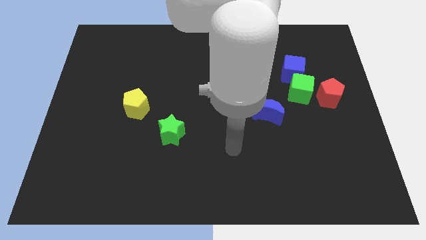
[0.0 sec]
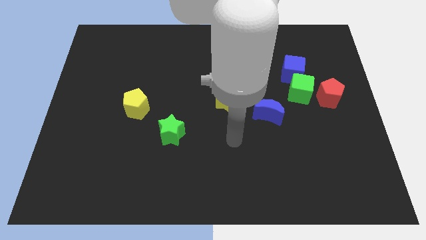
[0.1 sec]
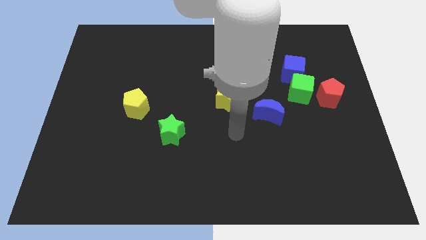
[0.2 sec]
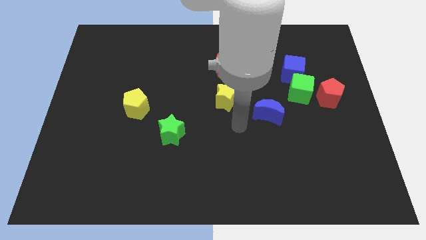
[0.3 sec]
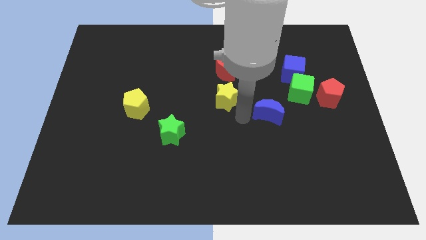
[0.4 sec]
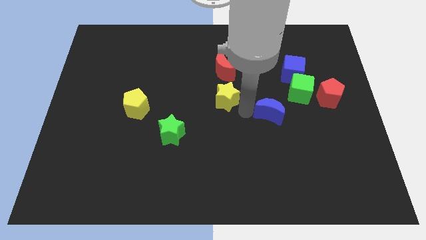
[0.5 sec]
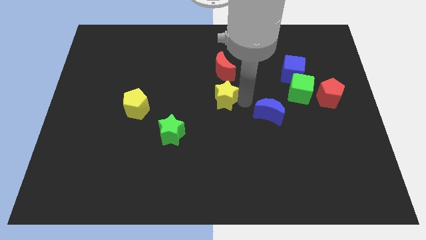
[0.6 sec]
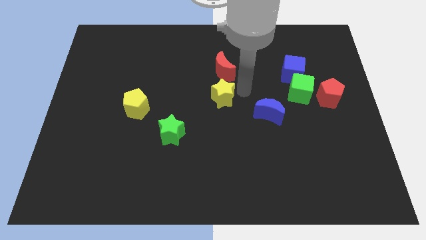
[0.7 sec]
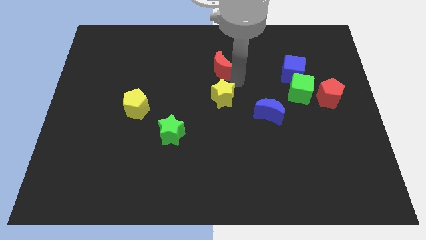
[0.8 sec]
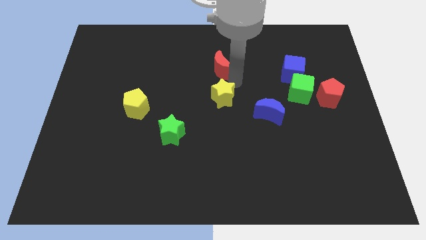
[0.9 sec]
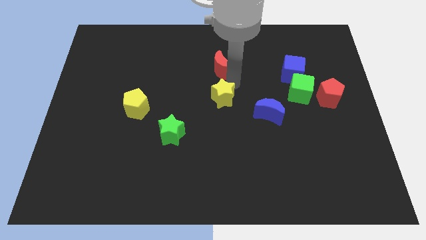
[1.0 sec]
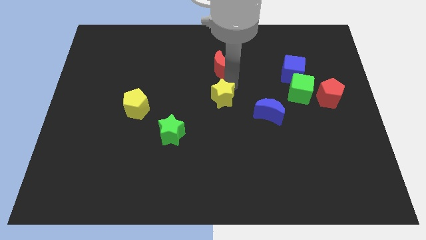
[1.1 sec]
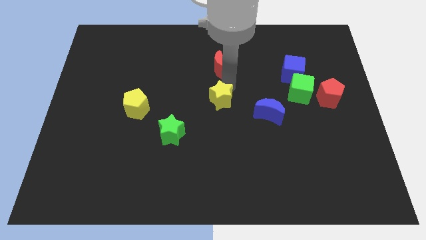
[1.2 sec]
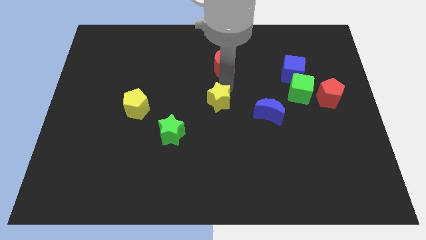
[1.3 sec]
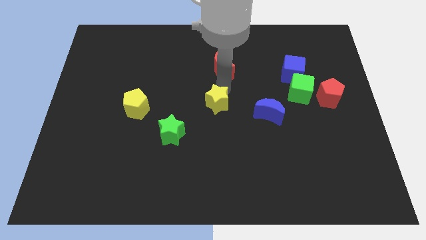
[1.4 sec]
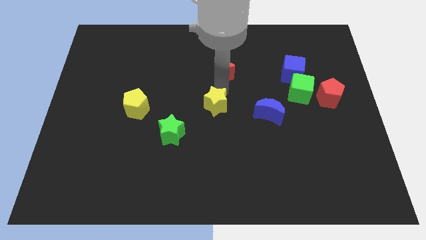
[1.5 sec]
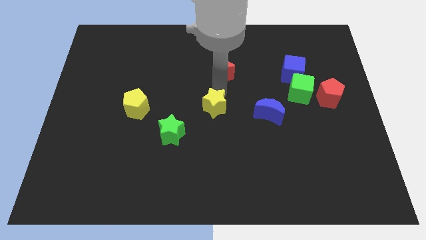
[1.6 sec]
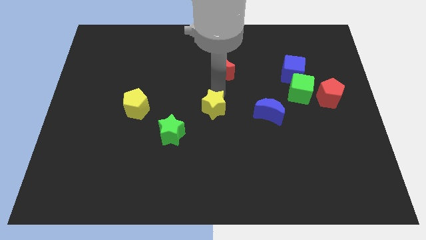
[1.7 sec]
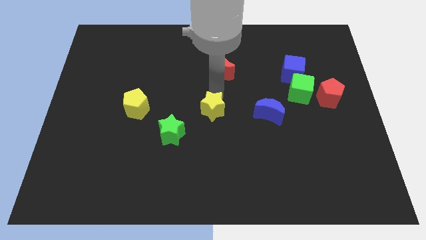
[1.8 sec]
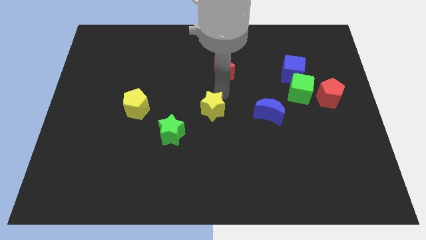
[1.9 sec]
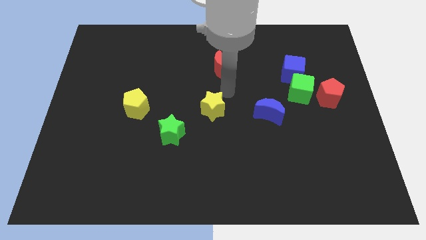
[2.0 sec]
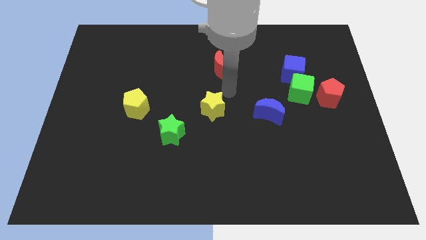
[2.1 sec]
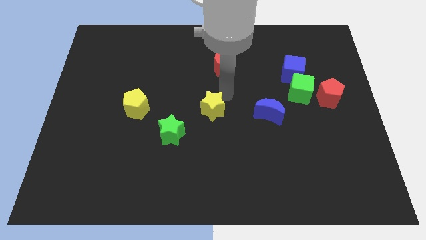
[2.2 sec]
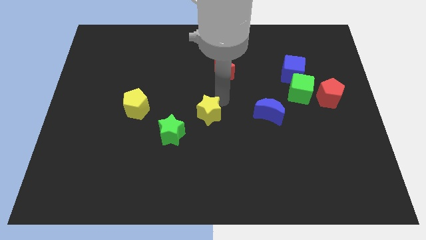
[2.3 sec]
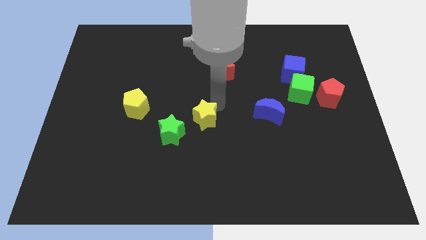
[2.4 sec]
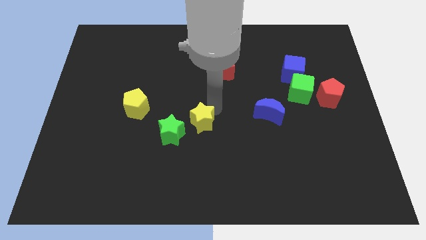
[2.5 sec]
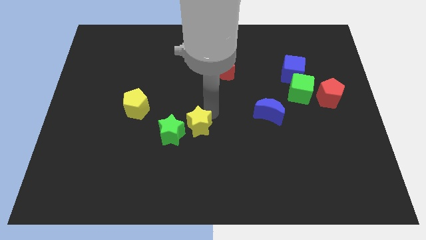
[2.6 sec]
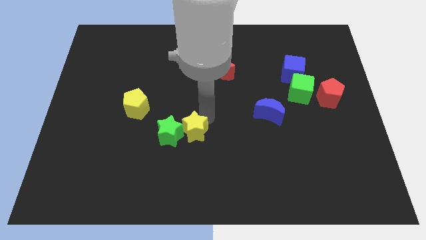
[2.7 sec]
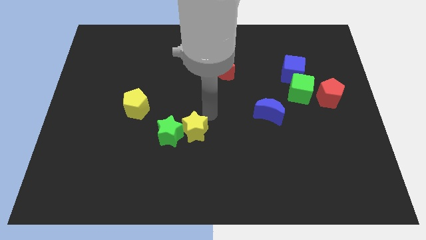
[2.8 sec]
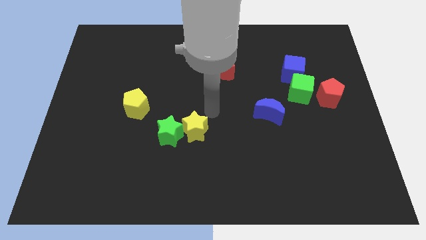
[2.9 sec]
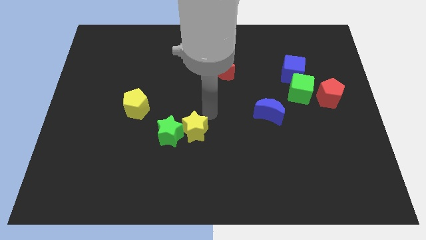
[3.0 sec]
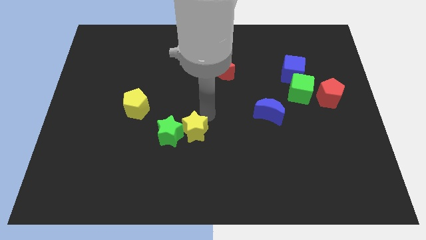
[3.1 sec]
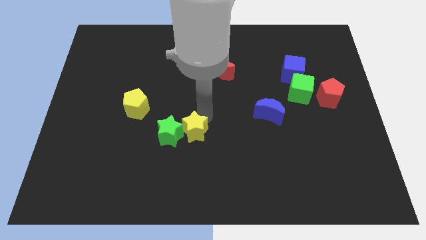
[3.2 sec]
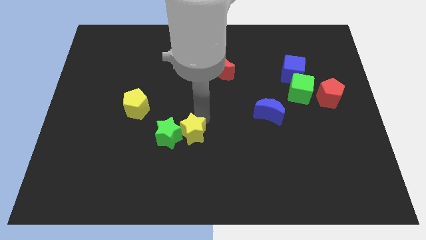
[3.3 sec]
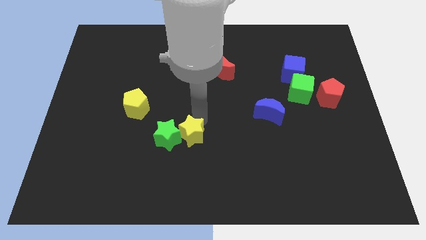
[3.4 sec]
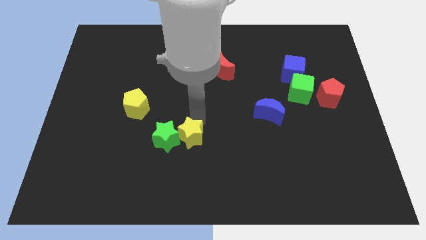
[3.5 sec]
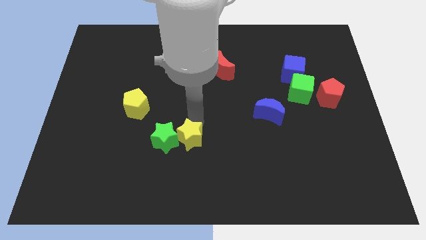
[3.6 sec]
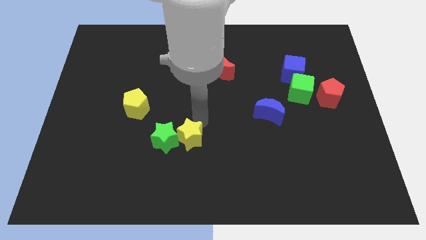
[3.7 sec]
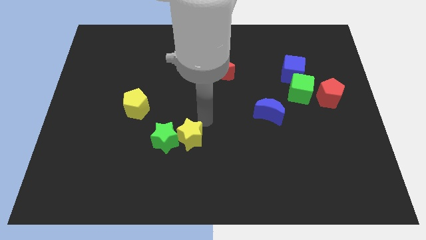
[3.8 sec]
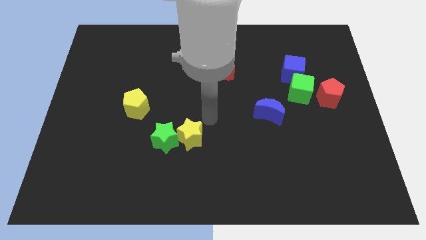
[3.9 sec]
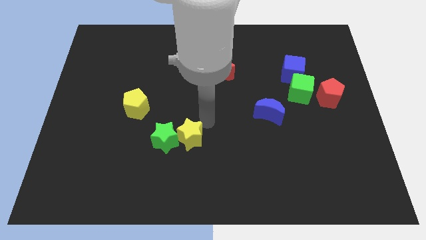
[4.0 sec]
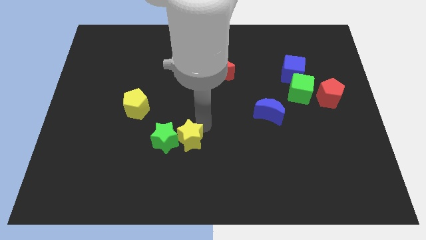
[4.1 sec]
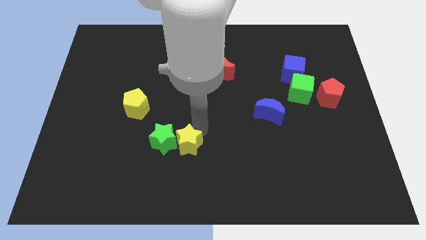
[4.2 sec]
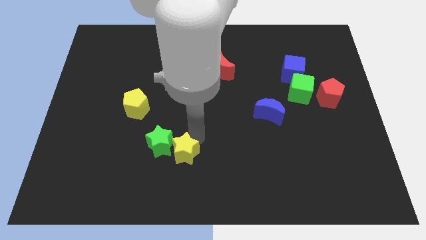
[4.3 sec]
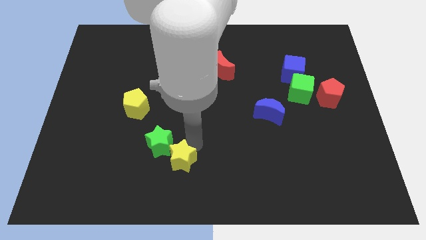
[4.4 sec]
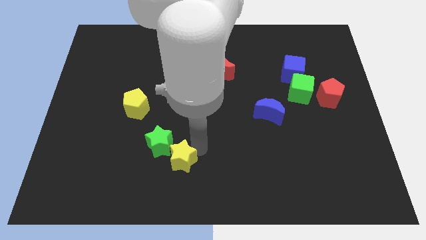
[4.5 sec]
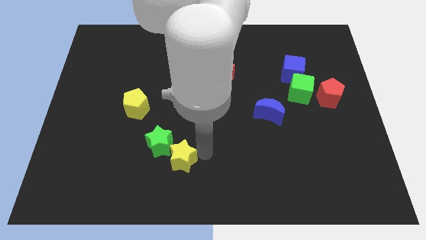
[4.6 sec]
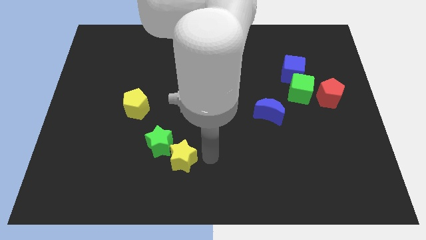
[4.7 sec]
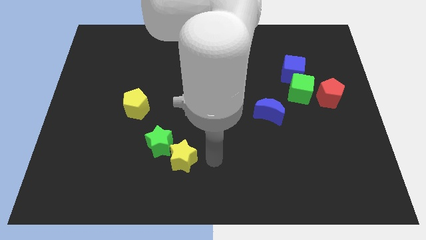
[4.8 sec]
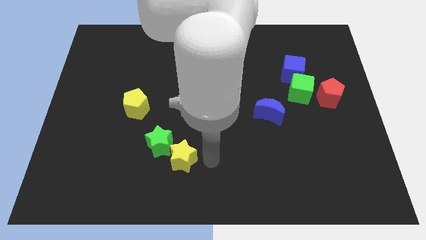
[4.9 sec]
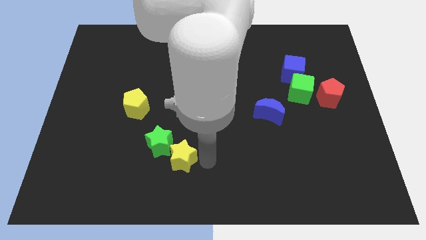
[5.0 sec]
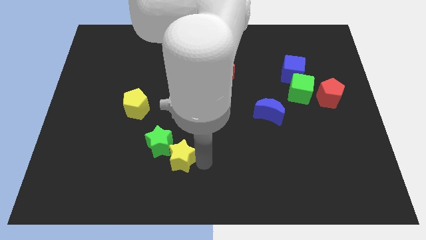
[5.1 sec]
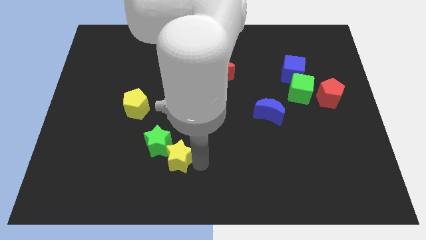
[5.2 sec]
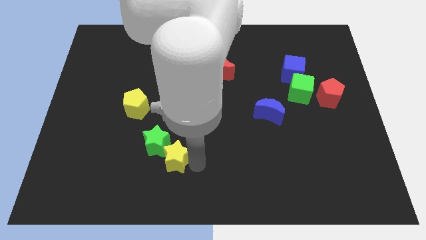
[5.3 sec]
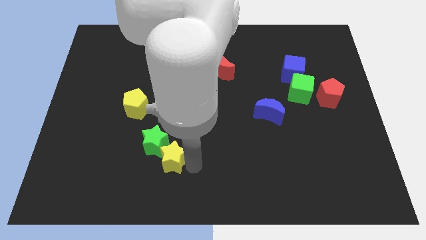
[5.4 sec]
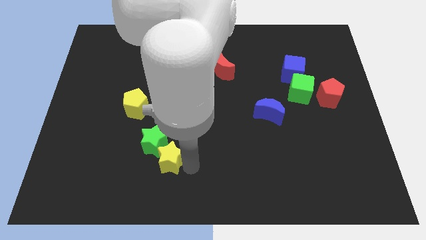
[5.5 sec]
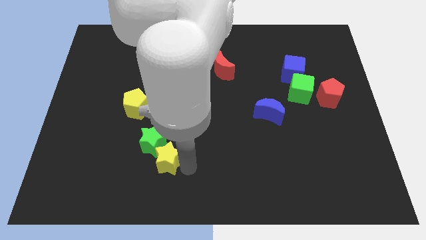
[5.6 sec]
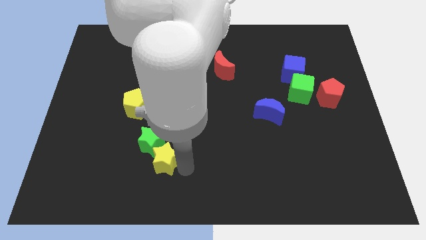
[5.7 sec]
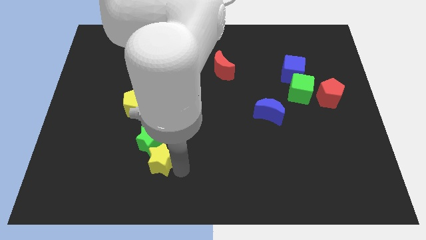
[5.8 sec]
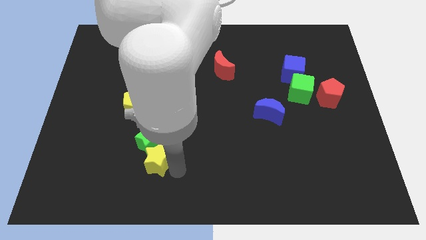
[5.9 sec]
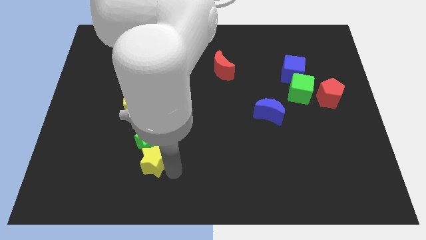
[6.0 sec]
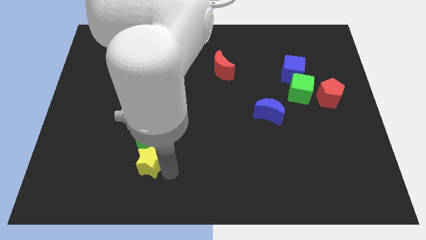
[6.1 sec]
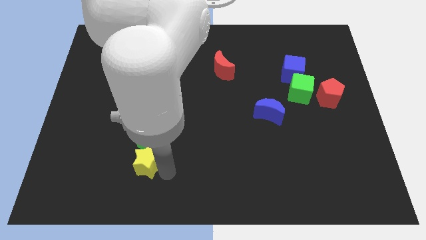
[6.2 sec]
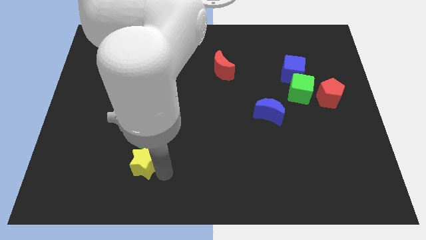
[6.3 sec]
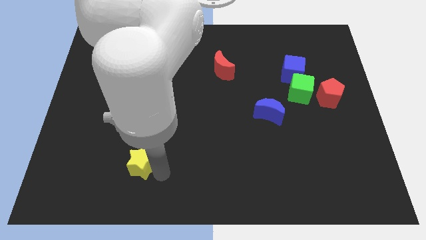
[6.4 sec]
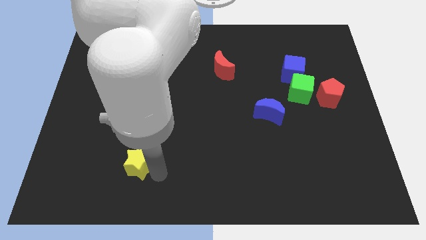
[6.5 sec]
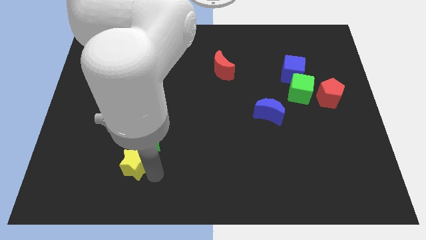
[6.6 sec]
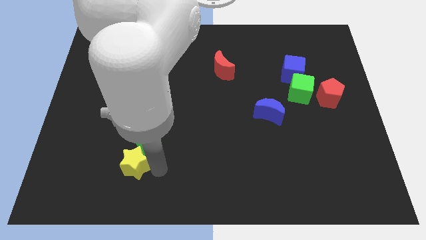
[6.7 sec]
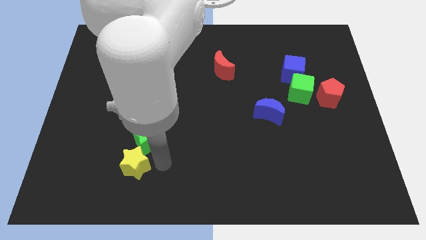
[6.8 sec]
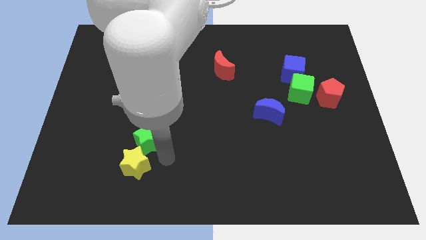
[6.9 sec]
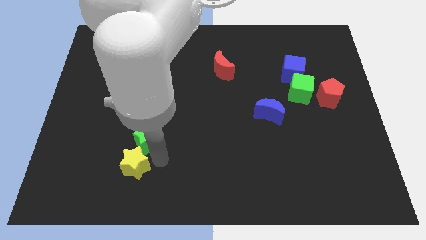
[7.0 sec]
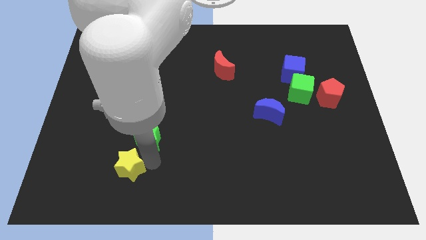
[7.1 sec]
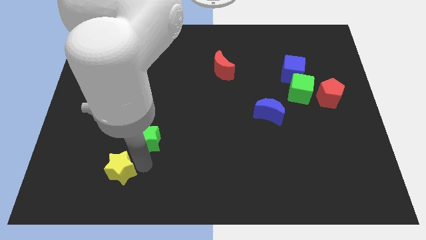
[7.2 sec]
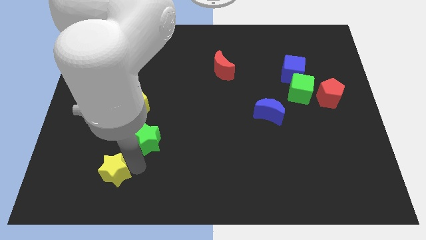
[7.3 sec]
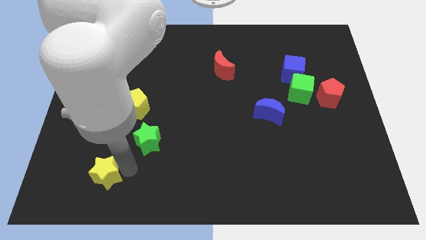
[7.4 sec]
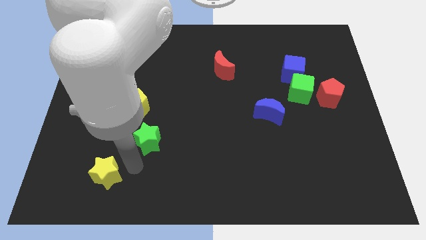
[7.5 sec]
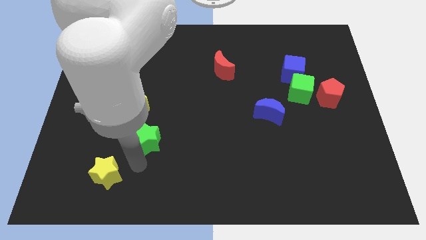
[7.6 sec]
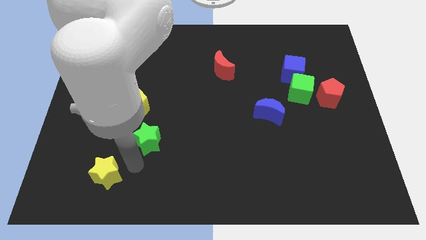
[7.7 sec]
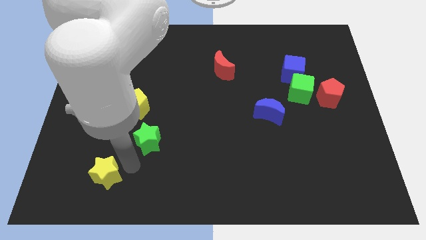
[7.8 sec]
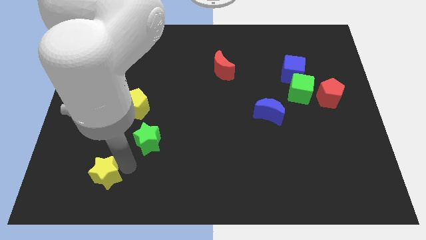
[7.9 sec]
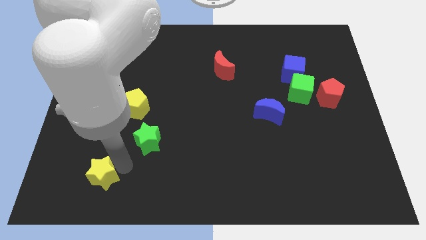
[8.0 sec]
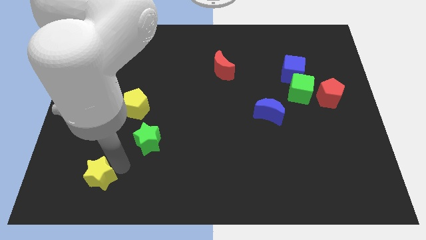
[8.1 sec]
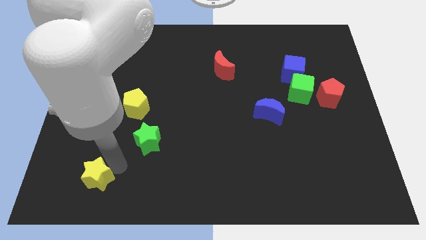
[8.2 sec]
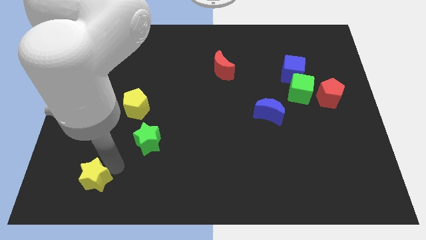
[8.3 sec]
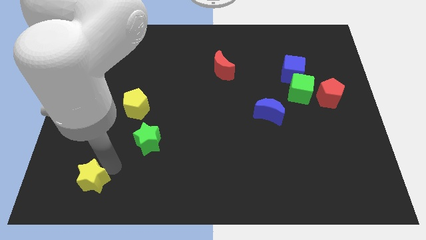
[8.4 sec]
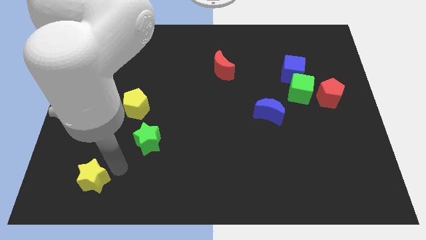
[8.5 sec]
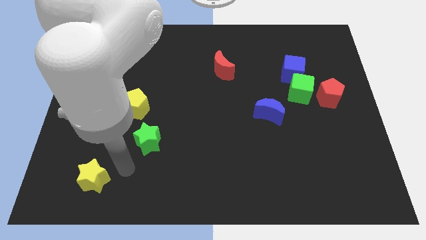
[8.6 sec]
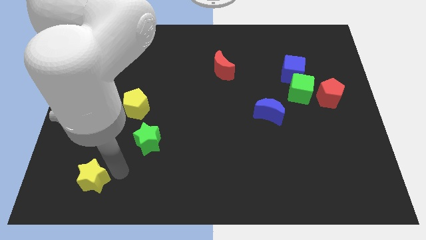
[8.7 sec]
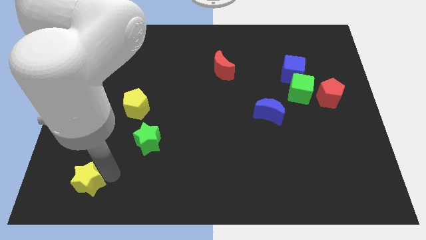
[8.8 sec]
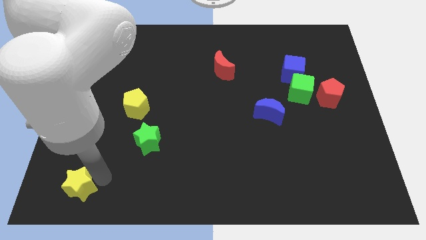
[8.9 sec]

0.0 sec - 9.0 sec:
push the yellow star to the bottom left of the board
